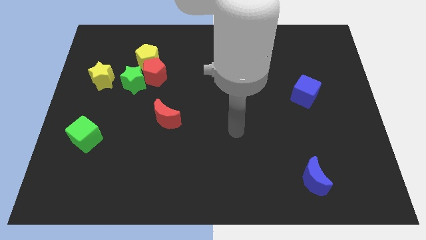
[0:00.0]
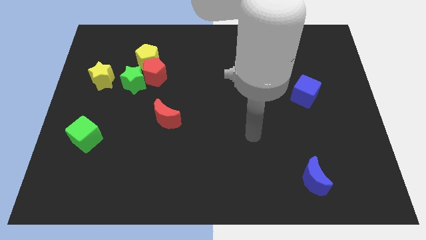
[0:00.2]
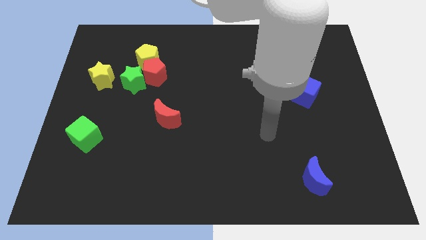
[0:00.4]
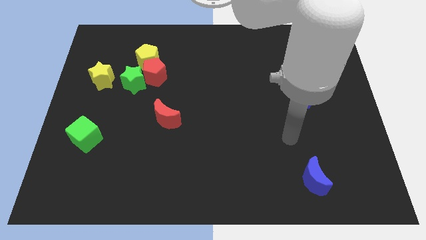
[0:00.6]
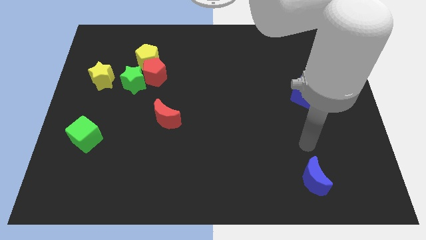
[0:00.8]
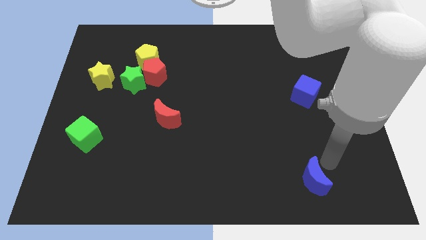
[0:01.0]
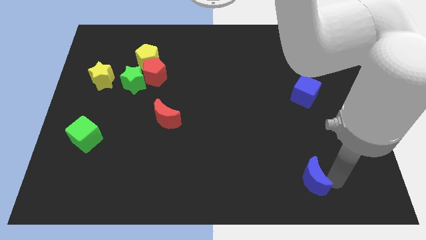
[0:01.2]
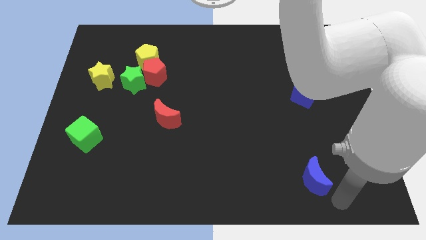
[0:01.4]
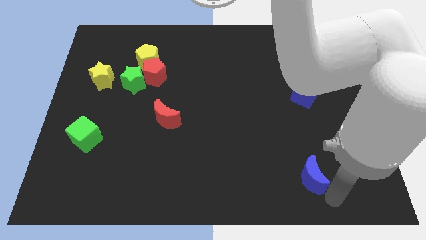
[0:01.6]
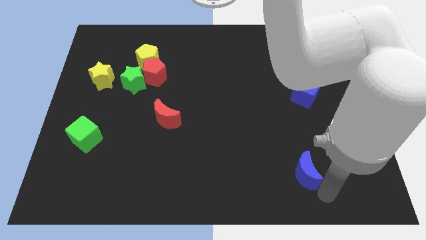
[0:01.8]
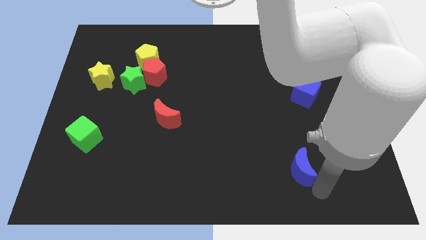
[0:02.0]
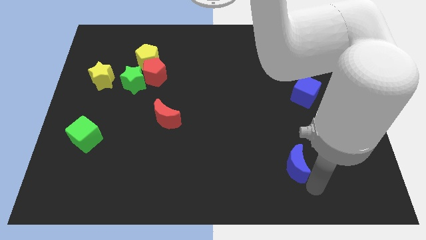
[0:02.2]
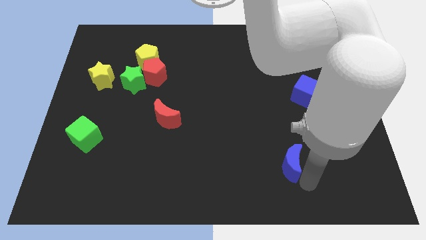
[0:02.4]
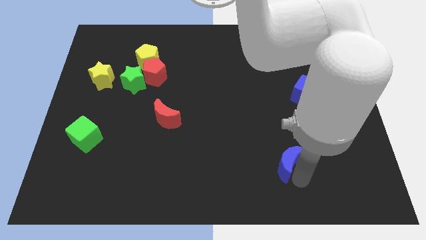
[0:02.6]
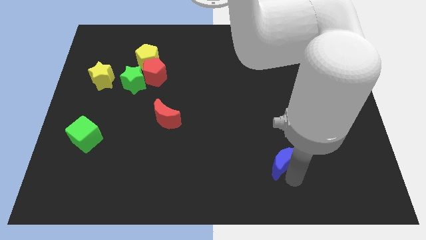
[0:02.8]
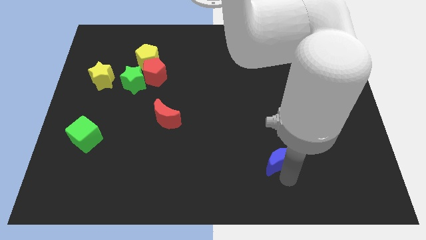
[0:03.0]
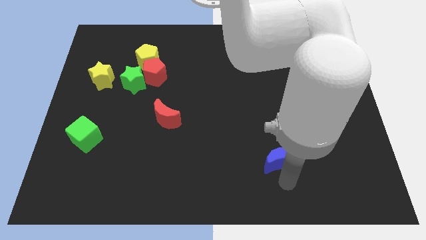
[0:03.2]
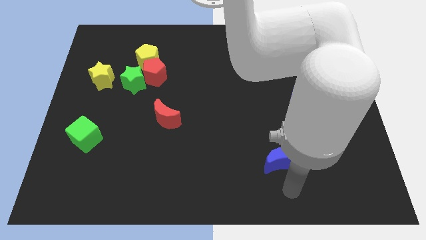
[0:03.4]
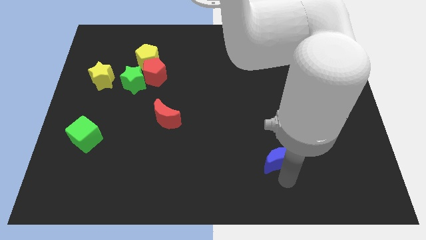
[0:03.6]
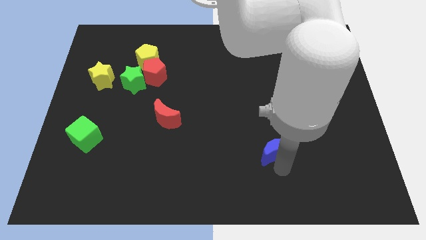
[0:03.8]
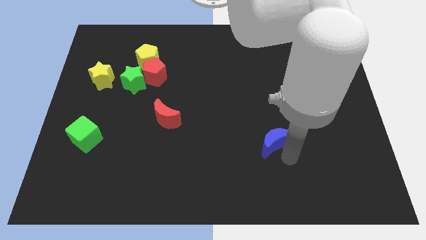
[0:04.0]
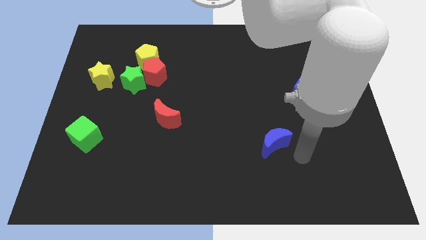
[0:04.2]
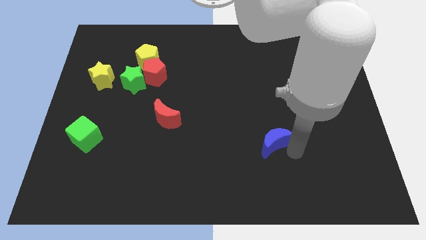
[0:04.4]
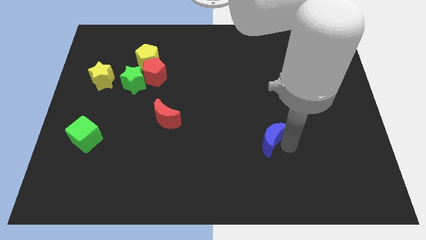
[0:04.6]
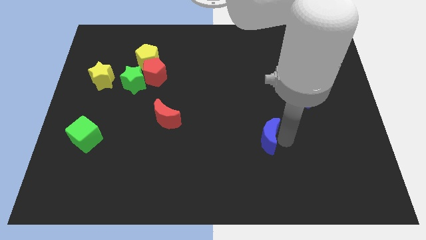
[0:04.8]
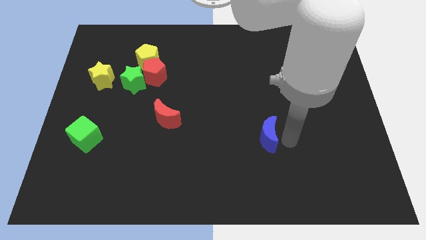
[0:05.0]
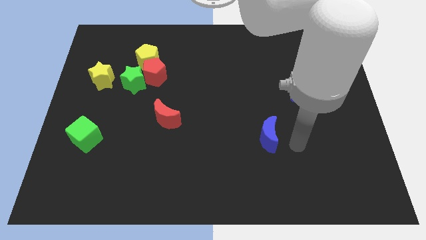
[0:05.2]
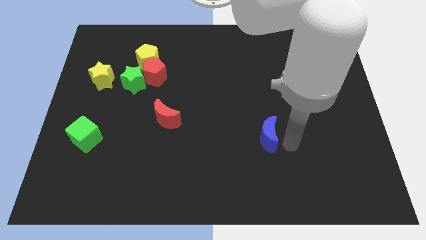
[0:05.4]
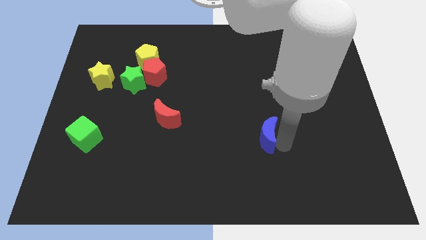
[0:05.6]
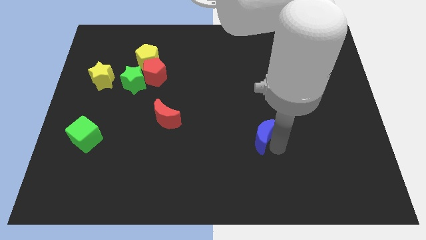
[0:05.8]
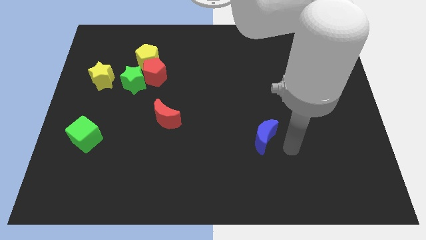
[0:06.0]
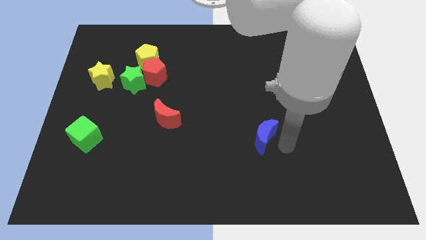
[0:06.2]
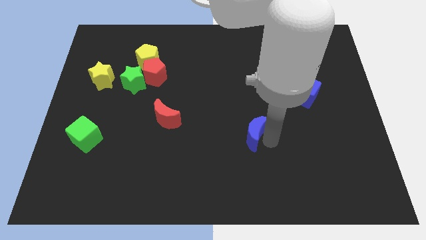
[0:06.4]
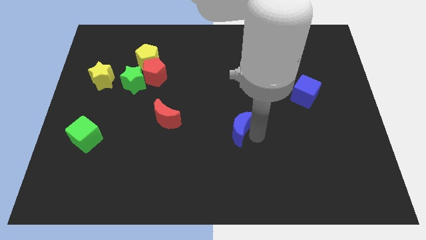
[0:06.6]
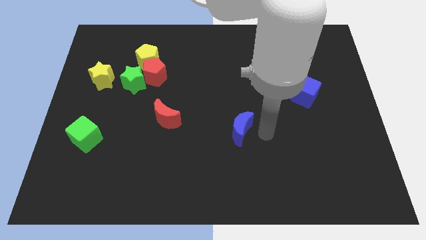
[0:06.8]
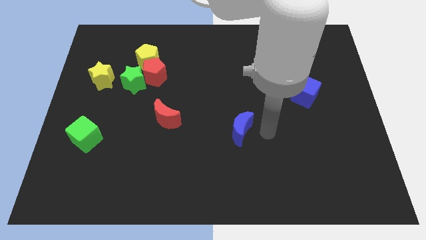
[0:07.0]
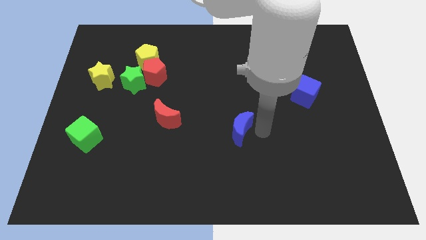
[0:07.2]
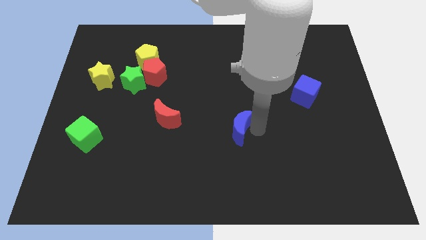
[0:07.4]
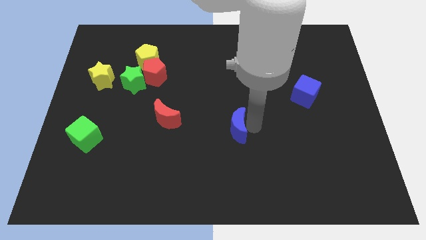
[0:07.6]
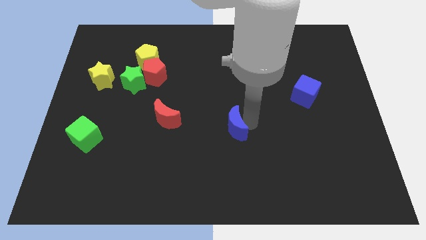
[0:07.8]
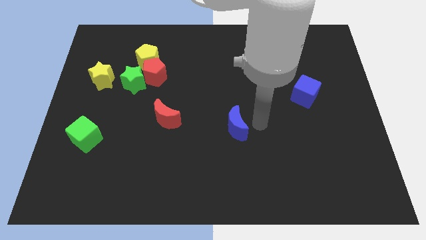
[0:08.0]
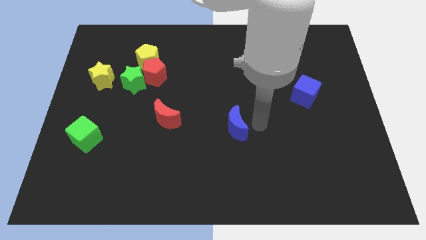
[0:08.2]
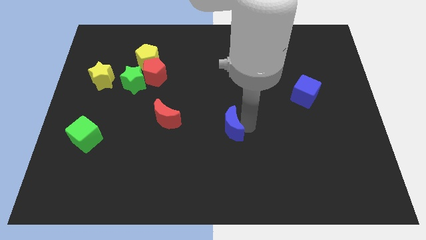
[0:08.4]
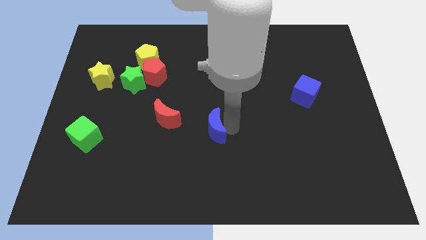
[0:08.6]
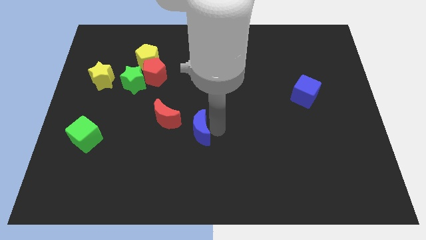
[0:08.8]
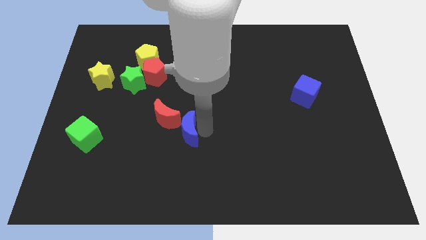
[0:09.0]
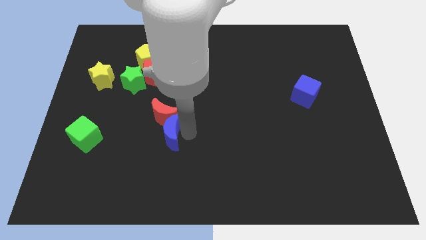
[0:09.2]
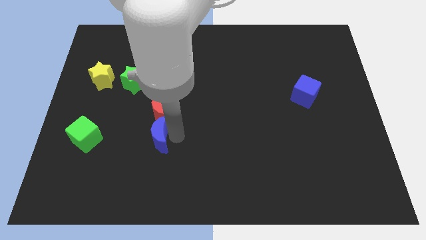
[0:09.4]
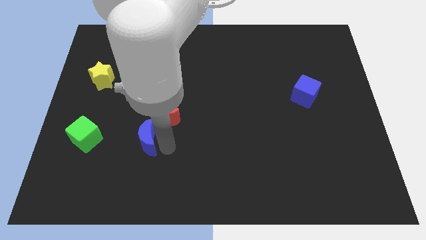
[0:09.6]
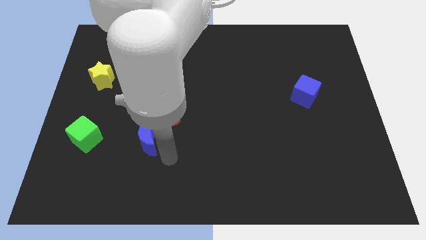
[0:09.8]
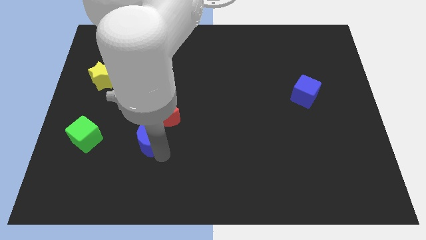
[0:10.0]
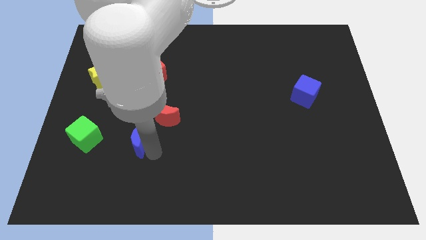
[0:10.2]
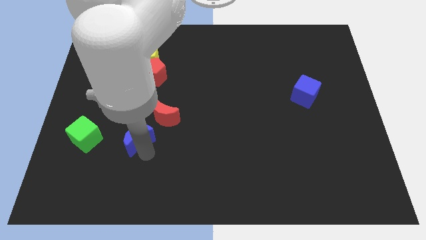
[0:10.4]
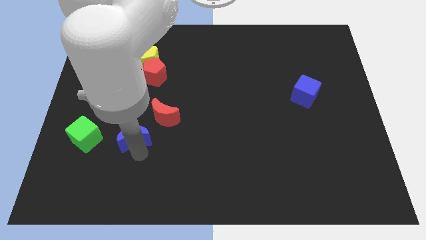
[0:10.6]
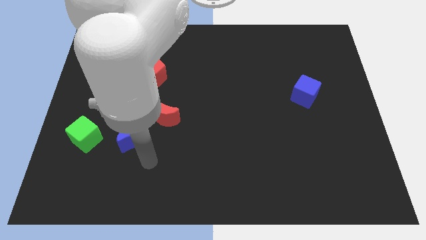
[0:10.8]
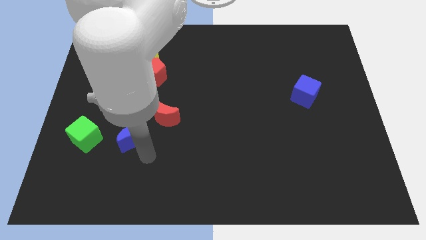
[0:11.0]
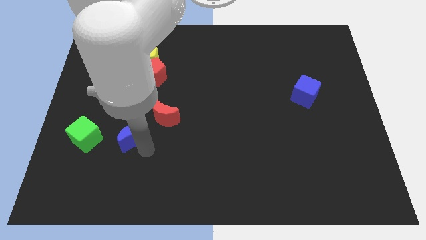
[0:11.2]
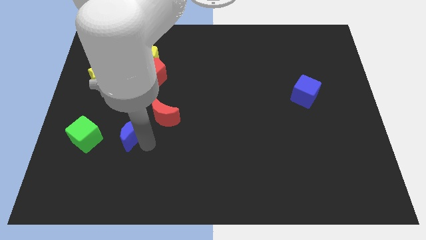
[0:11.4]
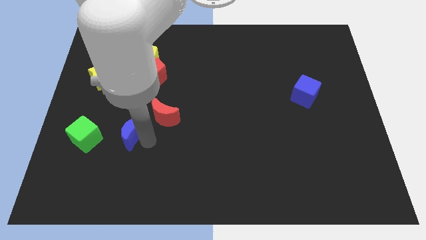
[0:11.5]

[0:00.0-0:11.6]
push the blue moon just left of the red moon

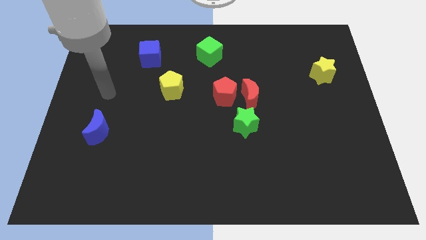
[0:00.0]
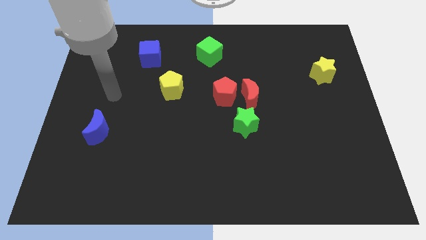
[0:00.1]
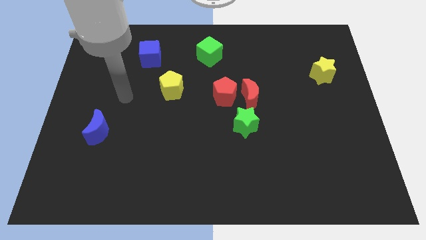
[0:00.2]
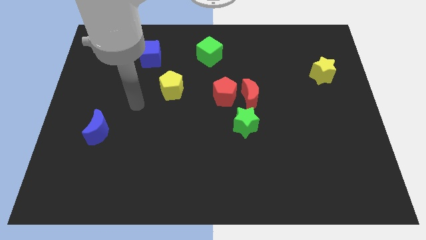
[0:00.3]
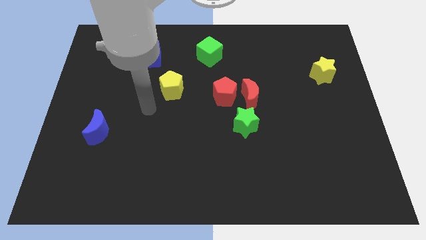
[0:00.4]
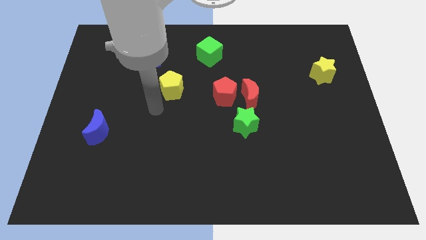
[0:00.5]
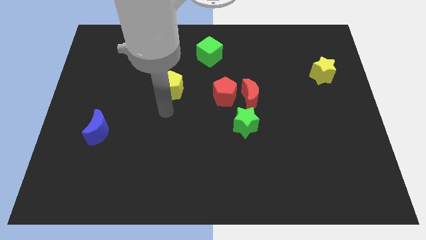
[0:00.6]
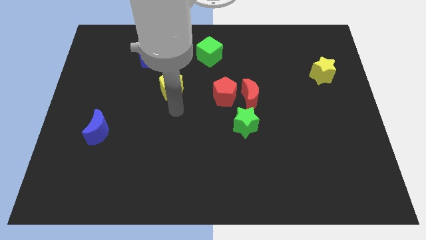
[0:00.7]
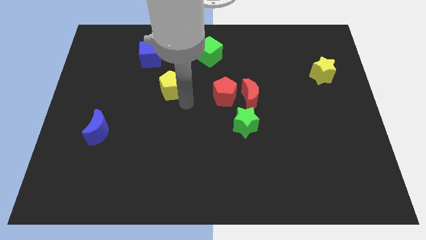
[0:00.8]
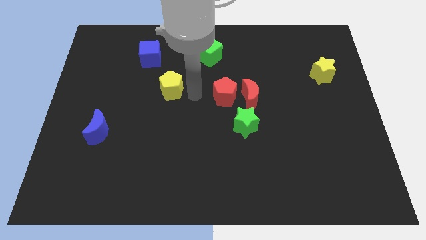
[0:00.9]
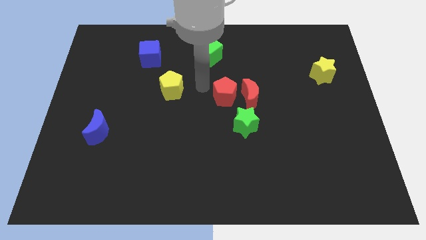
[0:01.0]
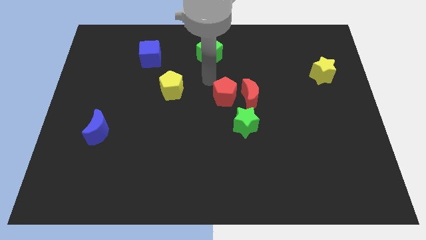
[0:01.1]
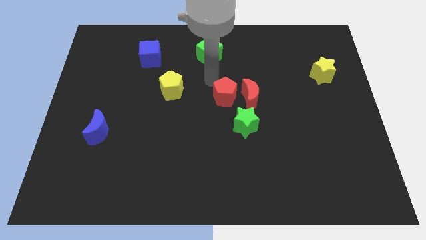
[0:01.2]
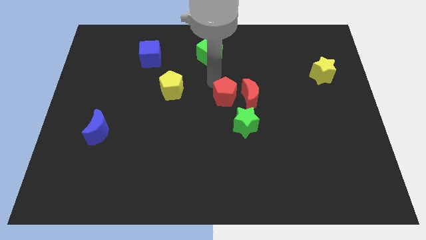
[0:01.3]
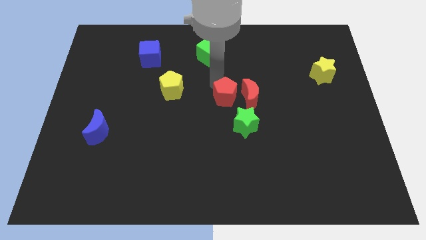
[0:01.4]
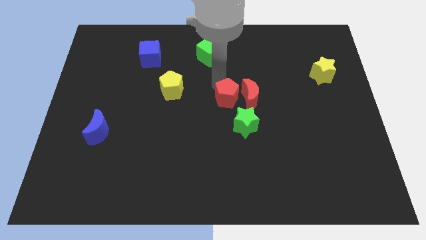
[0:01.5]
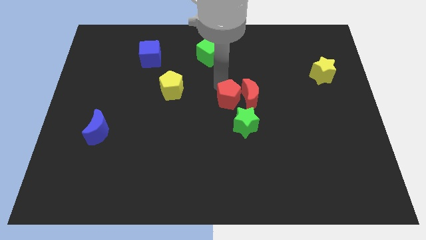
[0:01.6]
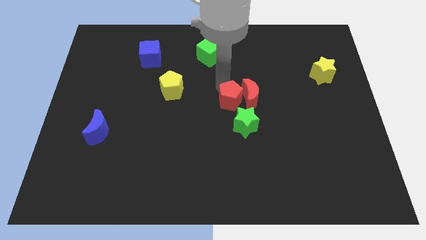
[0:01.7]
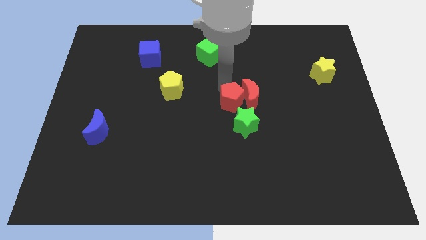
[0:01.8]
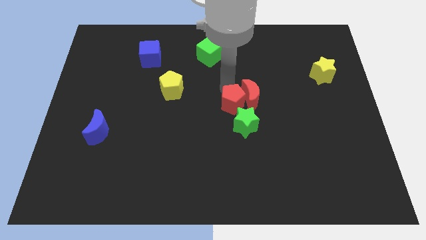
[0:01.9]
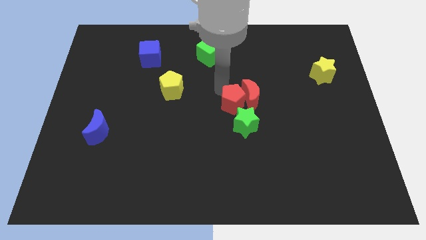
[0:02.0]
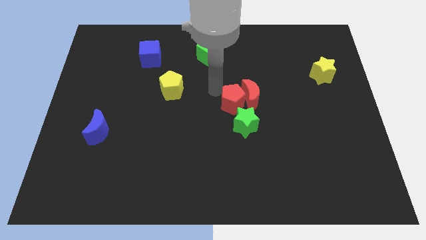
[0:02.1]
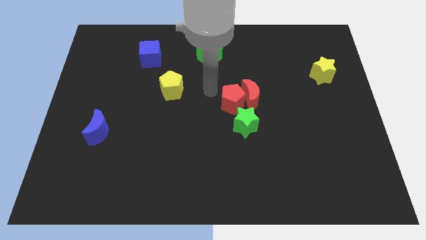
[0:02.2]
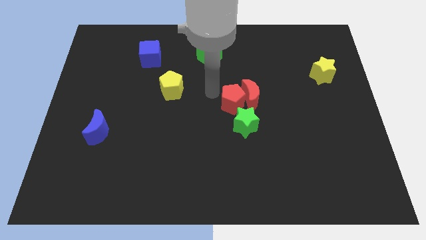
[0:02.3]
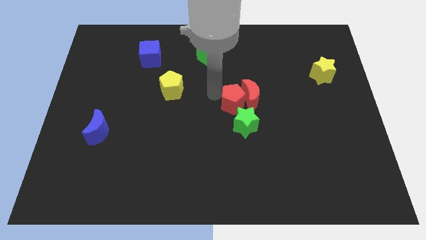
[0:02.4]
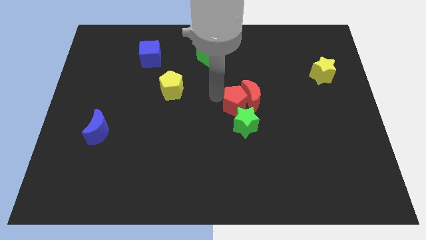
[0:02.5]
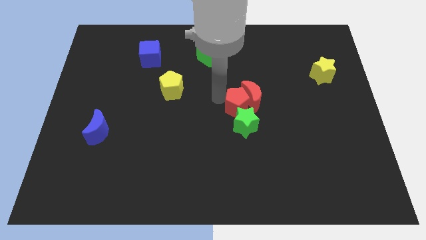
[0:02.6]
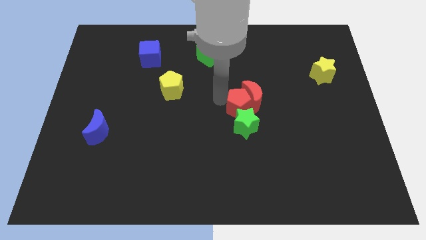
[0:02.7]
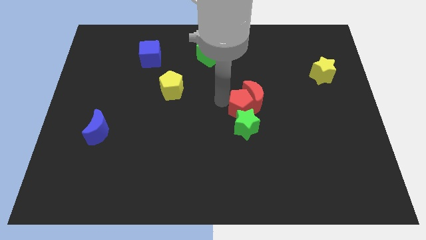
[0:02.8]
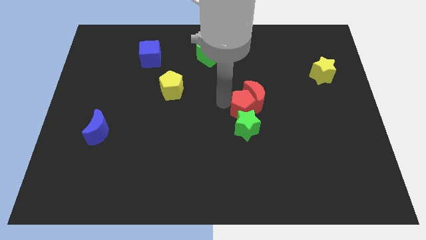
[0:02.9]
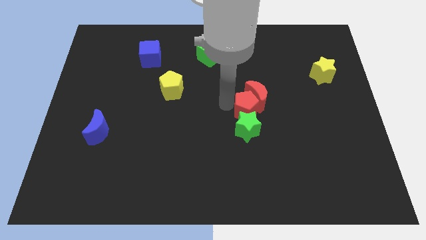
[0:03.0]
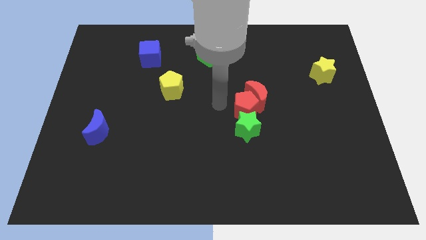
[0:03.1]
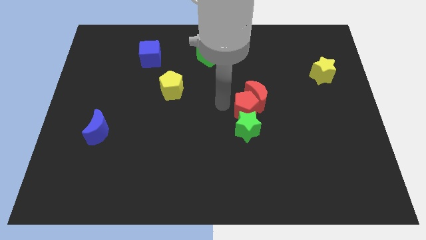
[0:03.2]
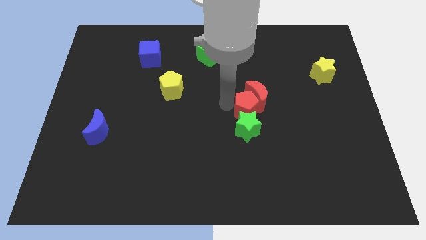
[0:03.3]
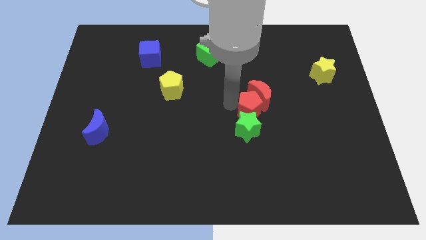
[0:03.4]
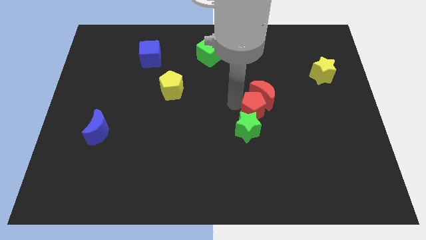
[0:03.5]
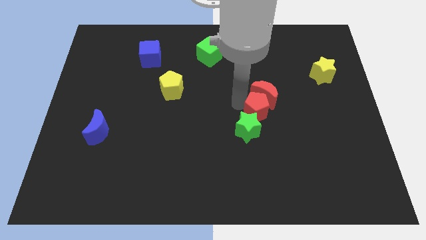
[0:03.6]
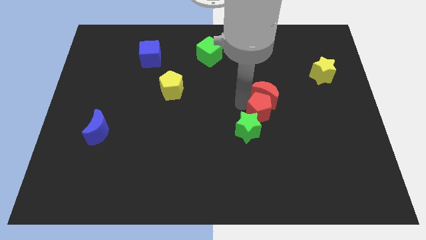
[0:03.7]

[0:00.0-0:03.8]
move the red pentagon to the bottom right of the red moon
